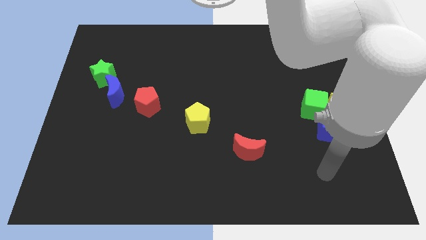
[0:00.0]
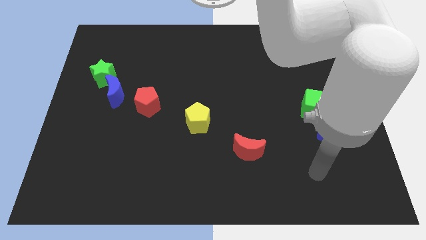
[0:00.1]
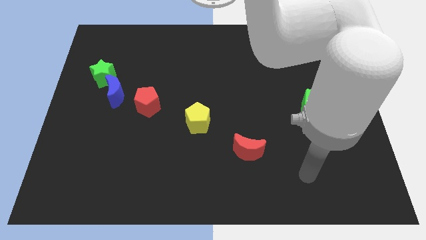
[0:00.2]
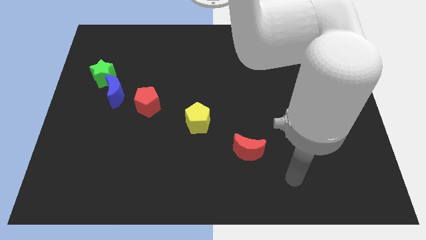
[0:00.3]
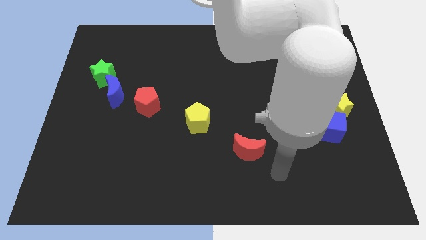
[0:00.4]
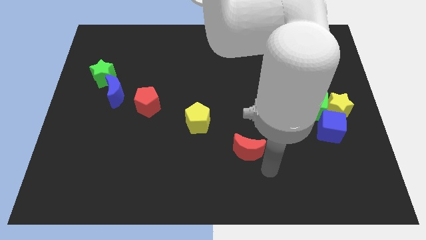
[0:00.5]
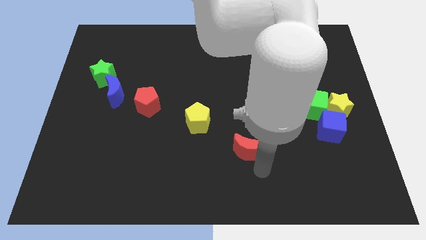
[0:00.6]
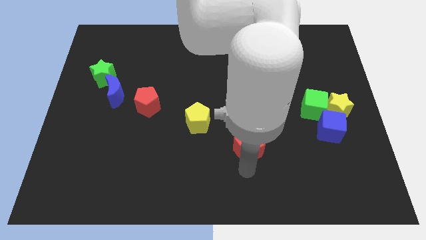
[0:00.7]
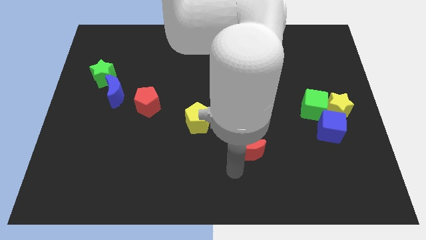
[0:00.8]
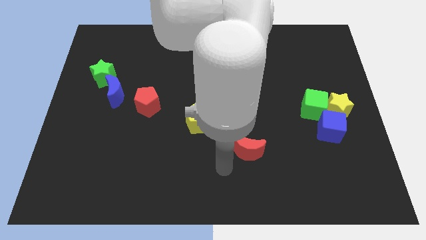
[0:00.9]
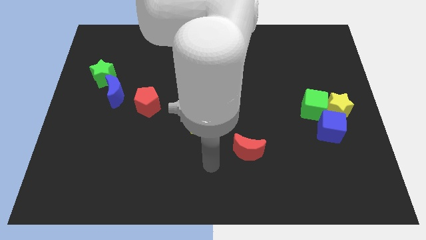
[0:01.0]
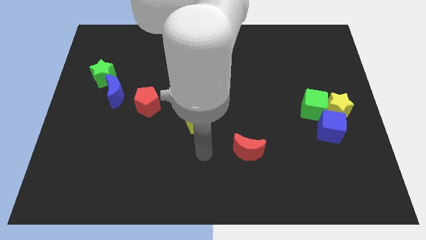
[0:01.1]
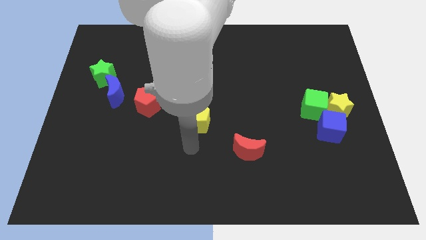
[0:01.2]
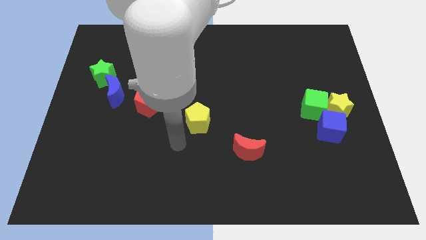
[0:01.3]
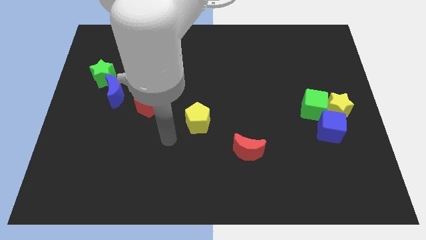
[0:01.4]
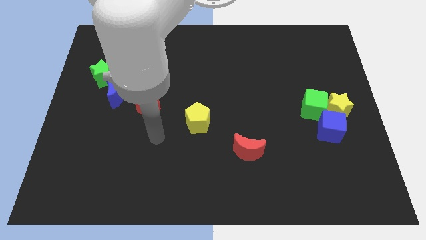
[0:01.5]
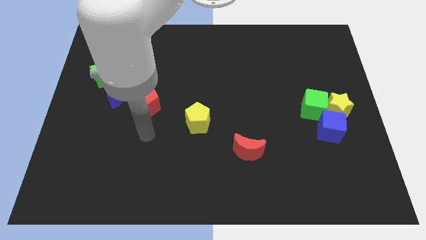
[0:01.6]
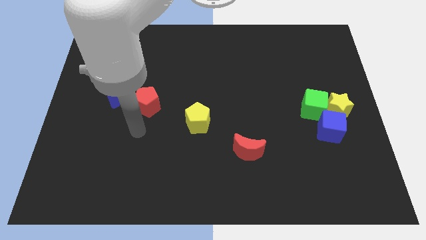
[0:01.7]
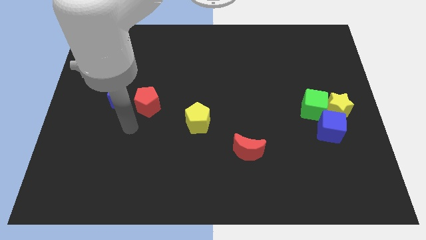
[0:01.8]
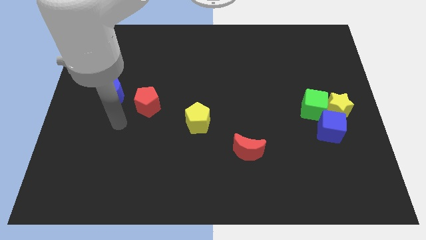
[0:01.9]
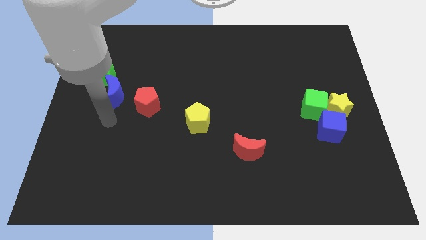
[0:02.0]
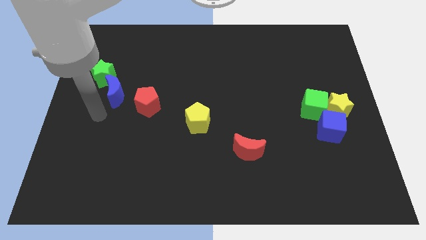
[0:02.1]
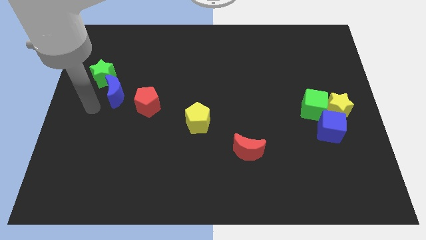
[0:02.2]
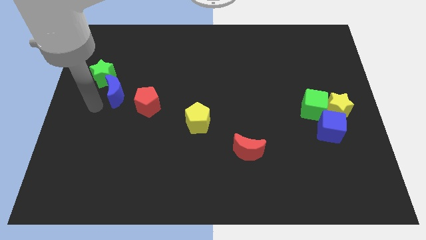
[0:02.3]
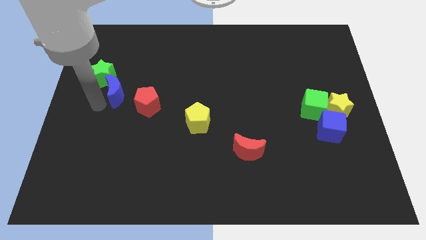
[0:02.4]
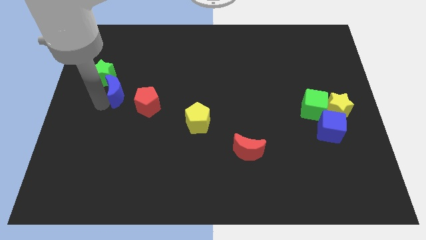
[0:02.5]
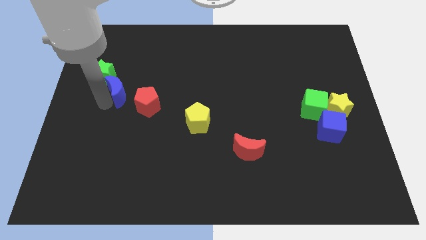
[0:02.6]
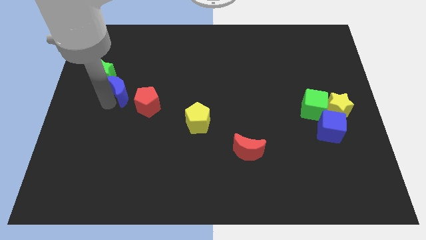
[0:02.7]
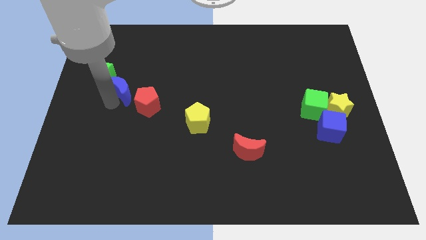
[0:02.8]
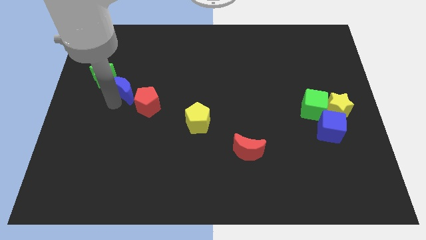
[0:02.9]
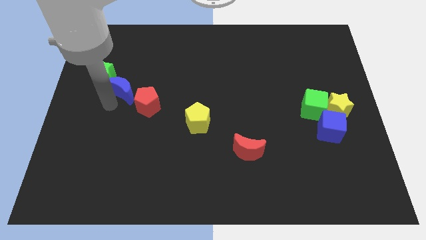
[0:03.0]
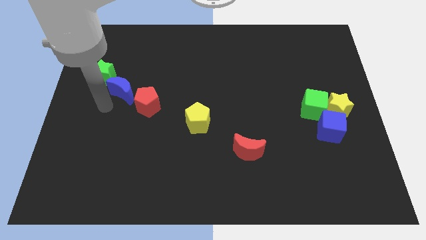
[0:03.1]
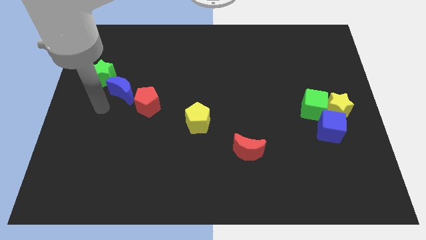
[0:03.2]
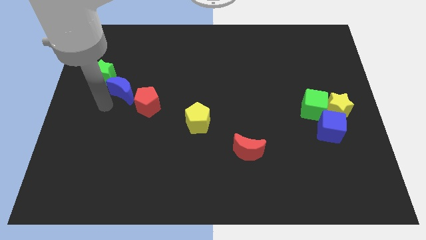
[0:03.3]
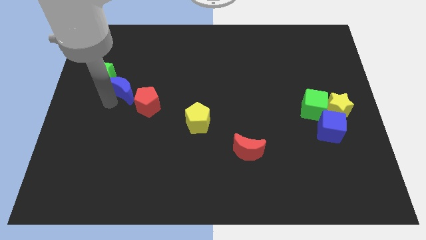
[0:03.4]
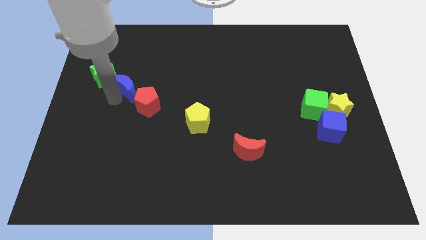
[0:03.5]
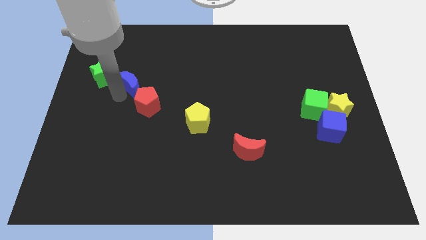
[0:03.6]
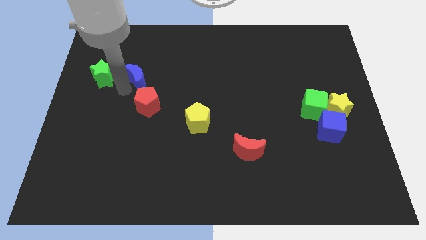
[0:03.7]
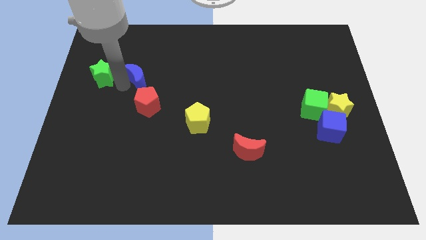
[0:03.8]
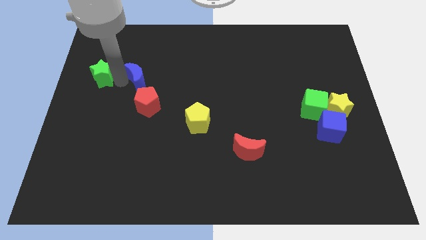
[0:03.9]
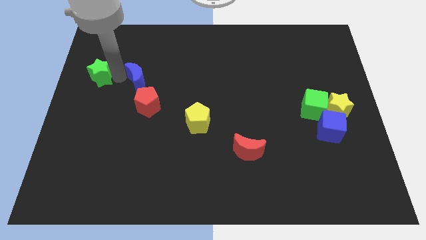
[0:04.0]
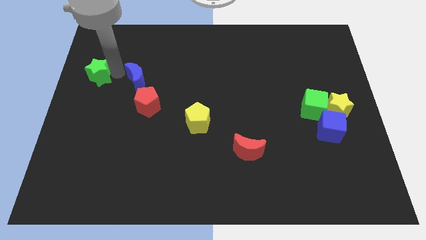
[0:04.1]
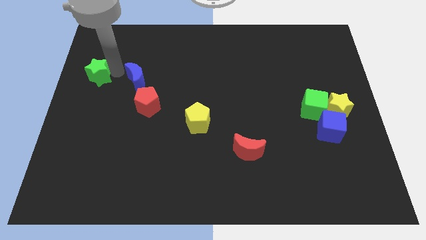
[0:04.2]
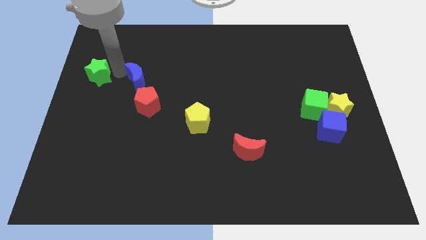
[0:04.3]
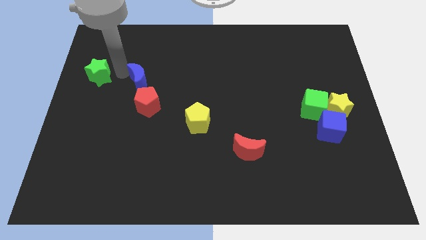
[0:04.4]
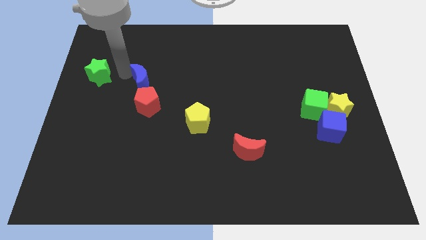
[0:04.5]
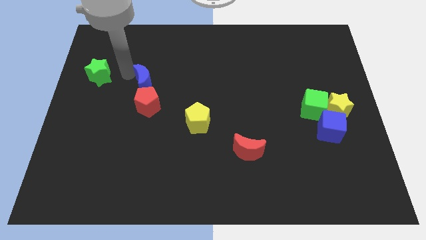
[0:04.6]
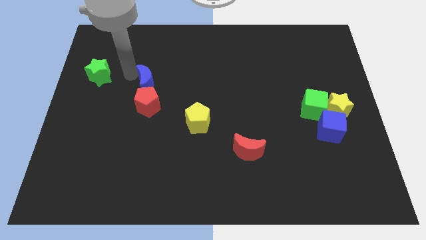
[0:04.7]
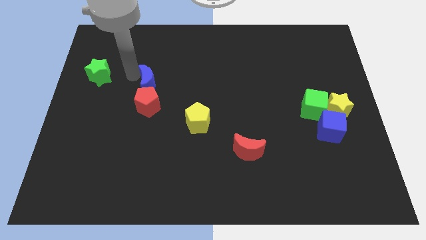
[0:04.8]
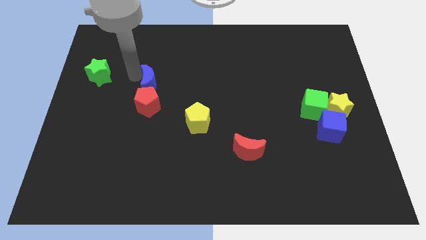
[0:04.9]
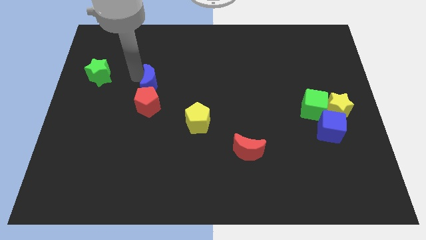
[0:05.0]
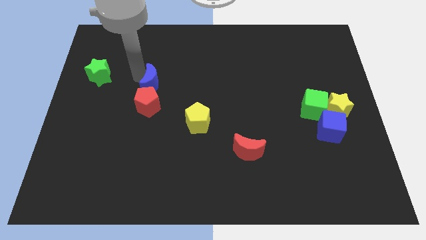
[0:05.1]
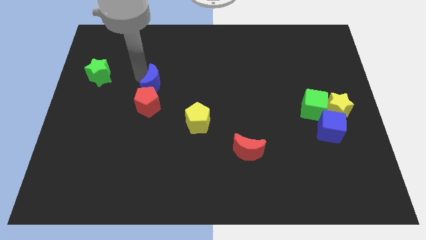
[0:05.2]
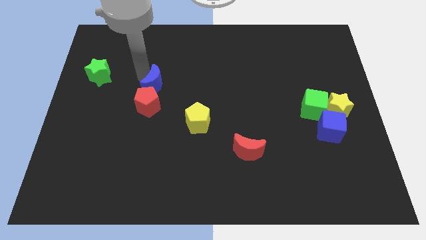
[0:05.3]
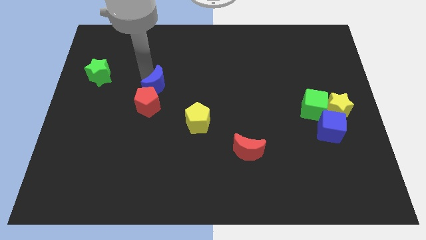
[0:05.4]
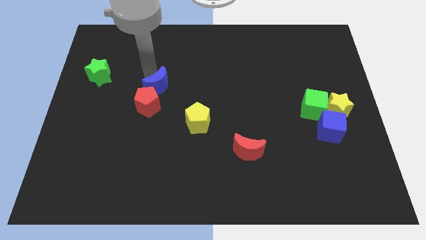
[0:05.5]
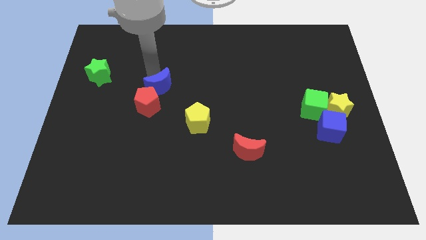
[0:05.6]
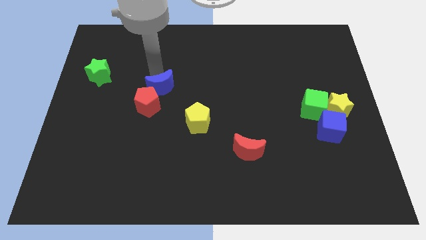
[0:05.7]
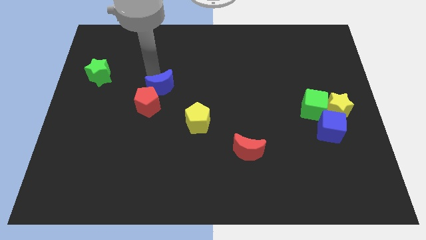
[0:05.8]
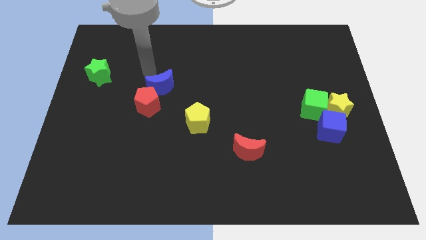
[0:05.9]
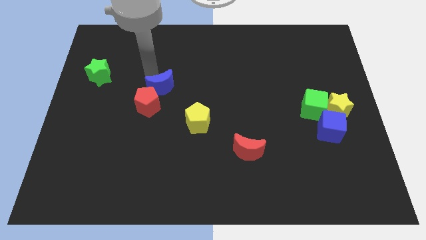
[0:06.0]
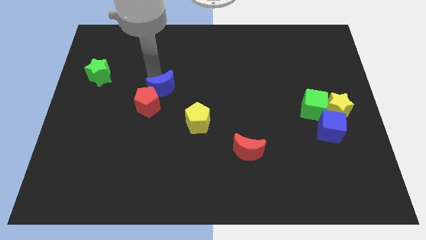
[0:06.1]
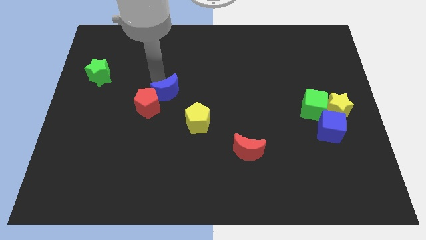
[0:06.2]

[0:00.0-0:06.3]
push the blue moon diagonally up and to the left of the yellow pentagon

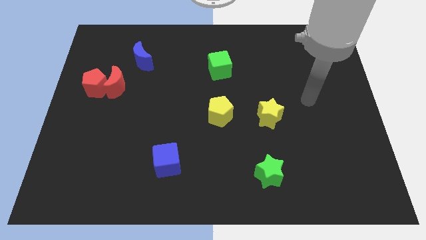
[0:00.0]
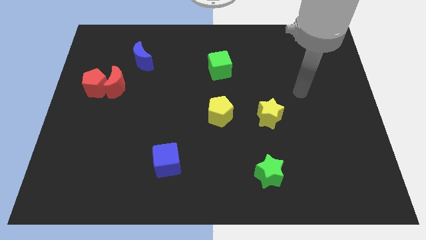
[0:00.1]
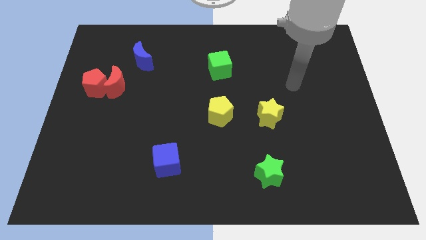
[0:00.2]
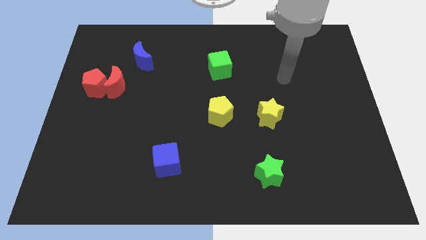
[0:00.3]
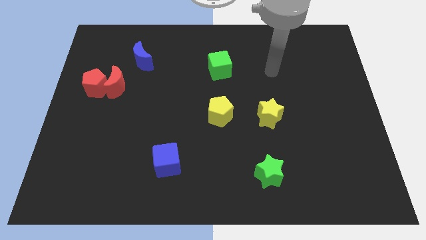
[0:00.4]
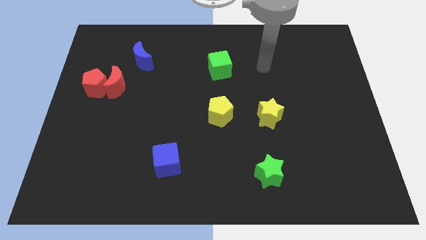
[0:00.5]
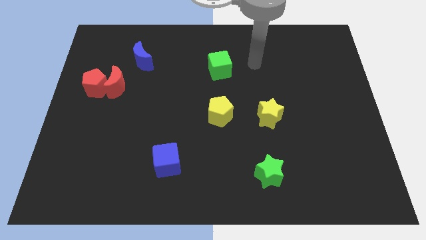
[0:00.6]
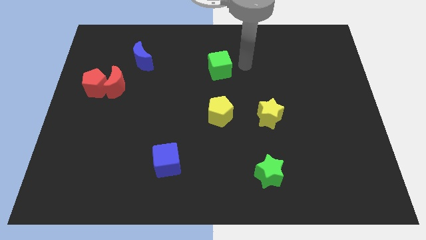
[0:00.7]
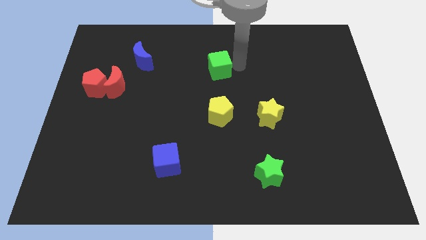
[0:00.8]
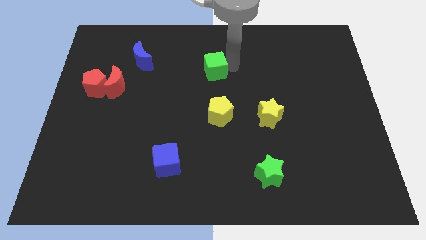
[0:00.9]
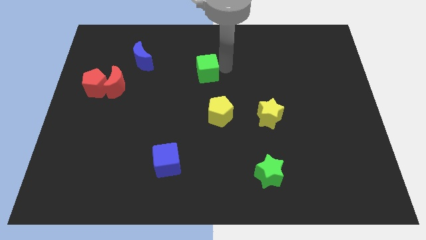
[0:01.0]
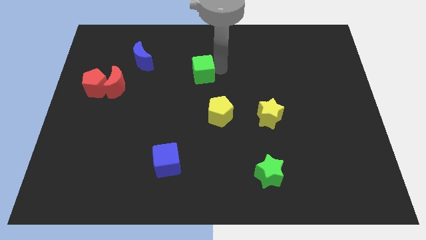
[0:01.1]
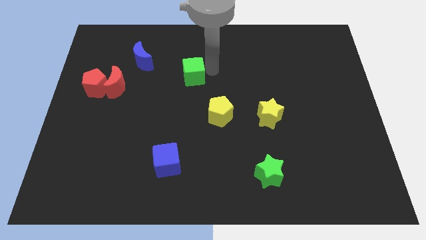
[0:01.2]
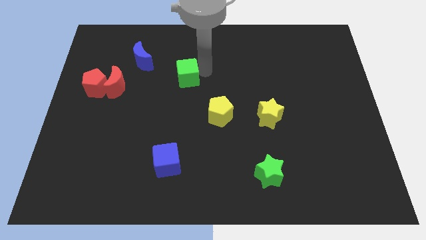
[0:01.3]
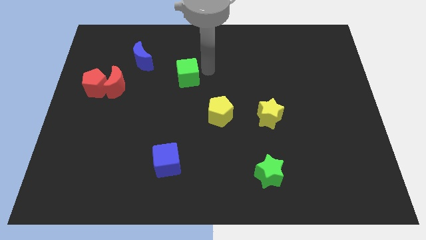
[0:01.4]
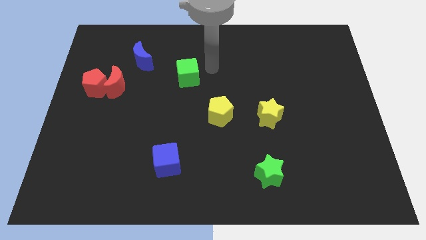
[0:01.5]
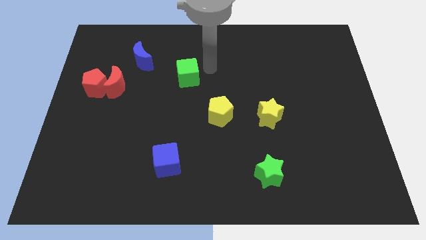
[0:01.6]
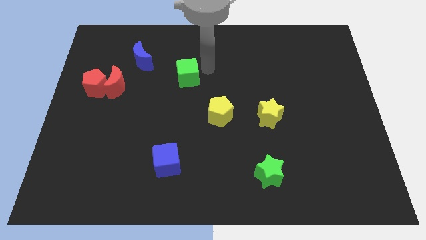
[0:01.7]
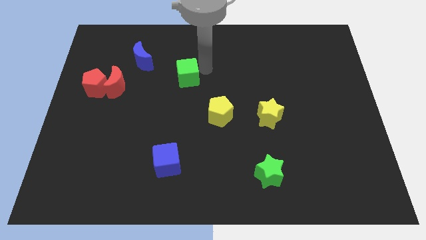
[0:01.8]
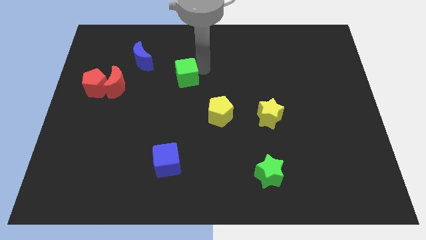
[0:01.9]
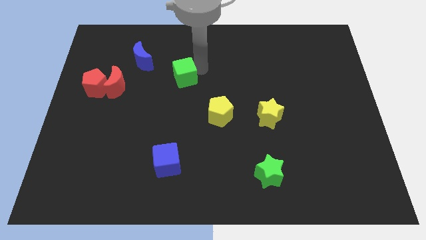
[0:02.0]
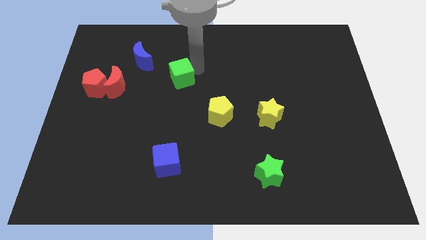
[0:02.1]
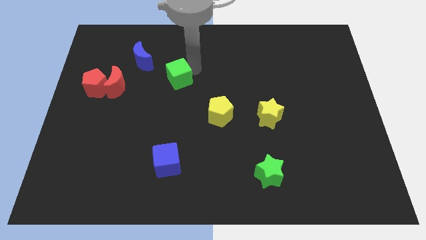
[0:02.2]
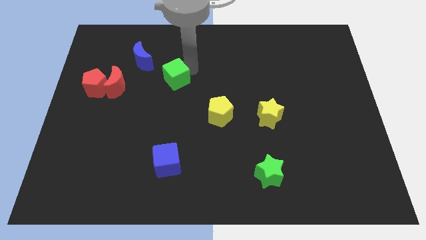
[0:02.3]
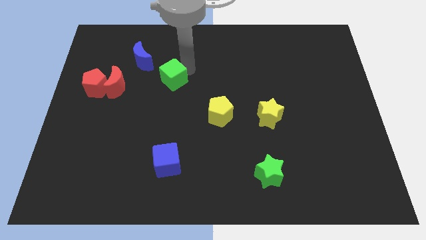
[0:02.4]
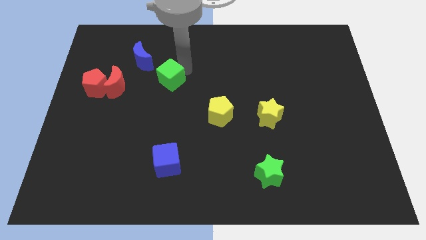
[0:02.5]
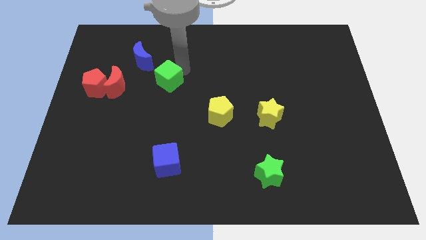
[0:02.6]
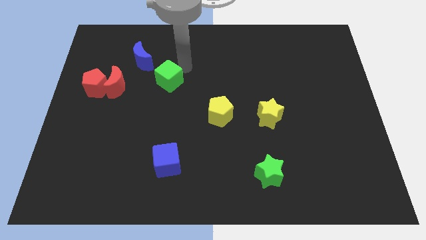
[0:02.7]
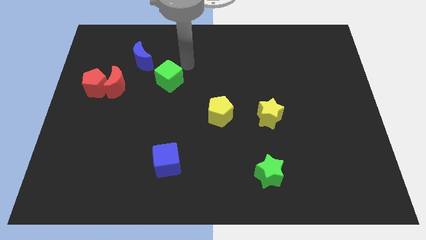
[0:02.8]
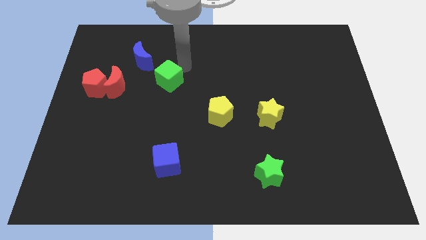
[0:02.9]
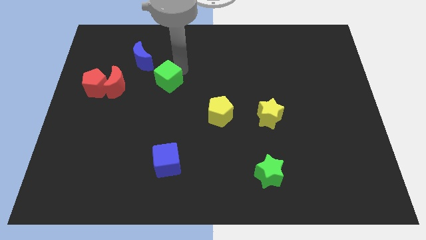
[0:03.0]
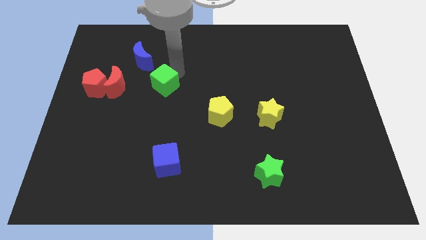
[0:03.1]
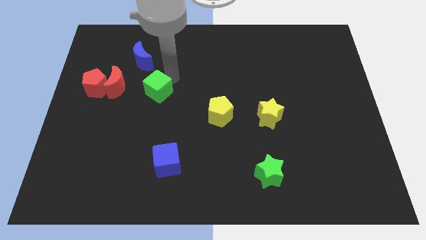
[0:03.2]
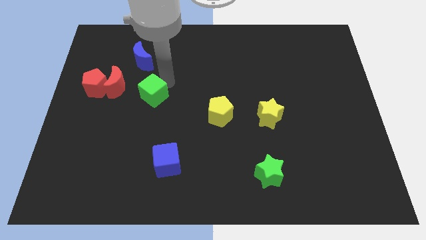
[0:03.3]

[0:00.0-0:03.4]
slide the green cube diagonally down and to the right of the red moon
